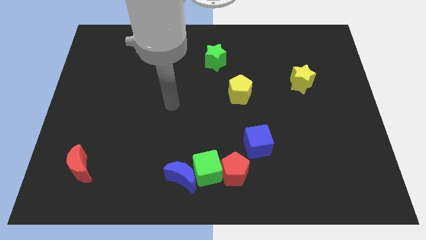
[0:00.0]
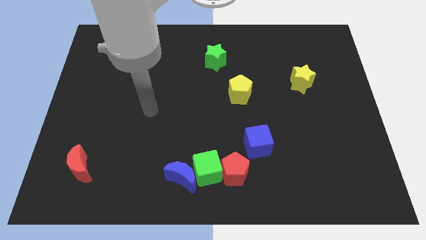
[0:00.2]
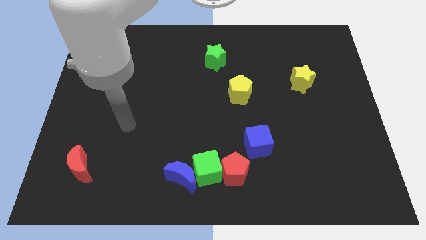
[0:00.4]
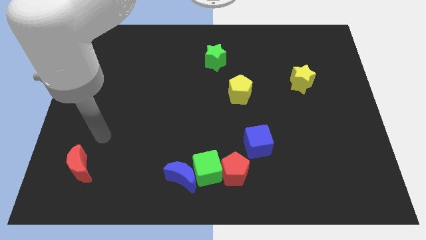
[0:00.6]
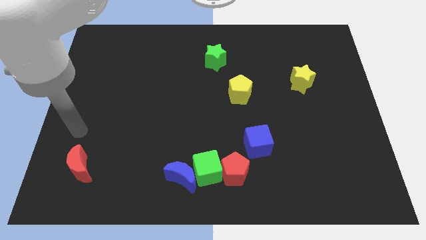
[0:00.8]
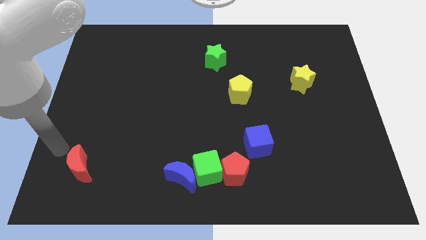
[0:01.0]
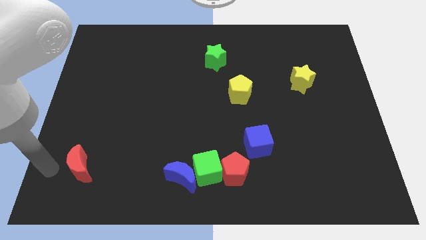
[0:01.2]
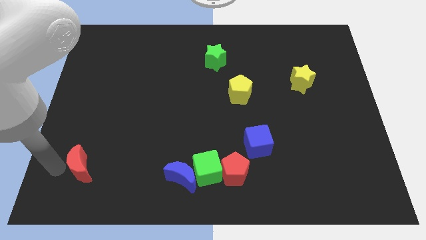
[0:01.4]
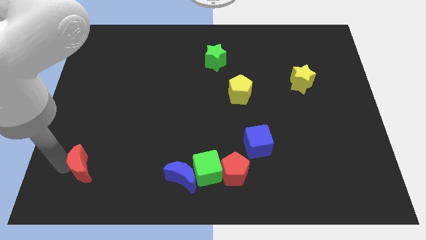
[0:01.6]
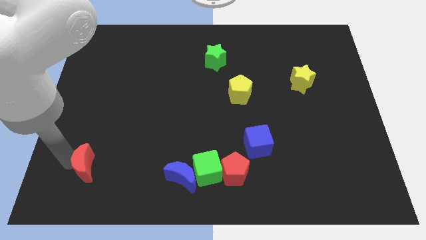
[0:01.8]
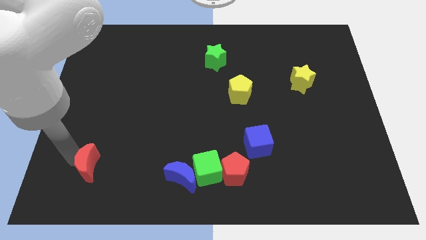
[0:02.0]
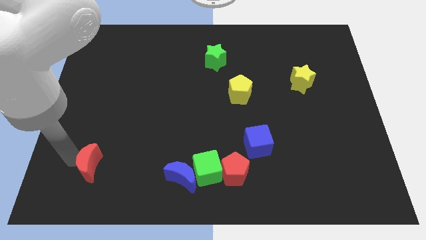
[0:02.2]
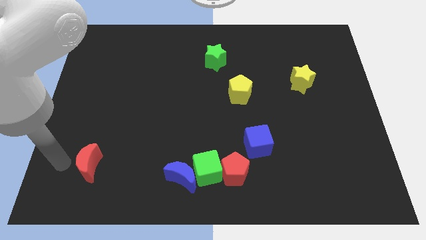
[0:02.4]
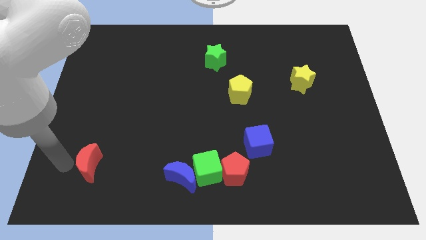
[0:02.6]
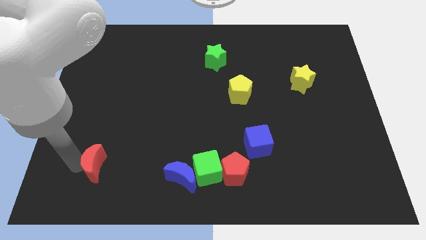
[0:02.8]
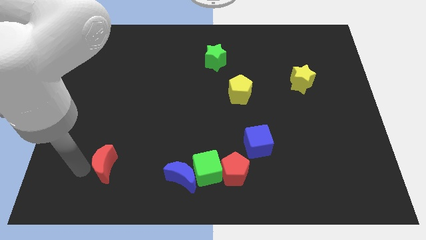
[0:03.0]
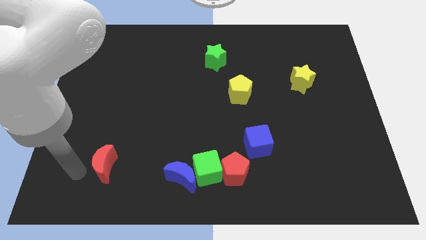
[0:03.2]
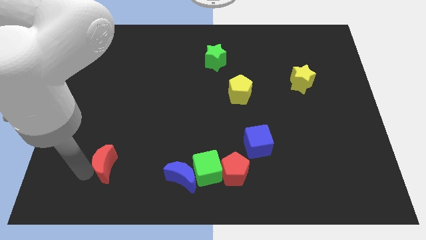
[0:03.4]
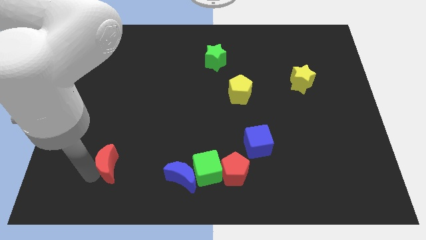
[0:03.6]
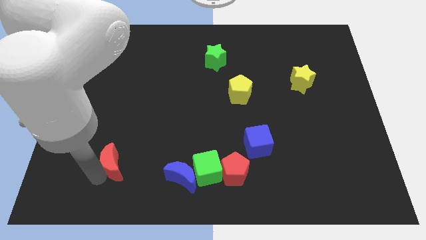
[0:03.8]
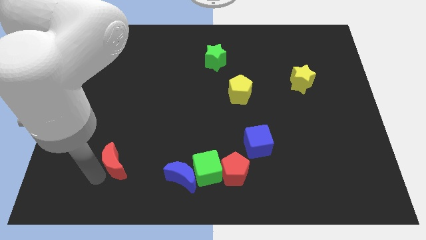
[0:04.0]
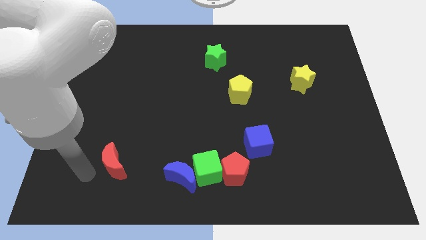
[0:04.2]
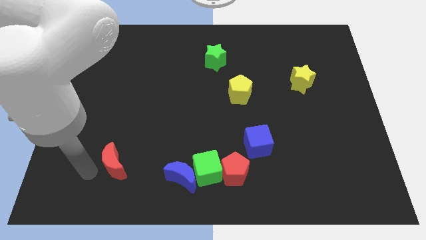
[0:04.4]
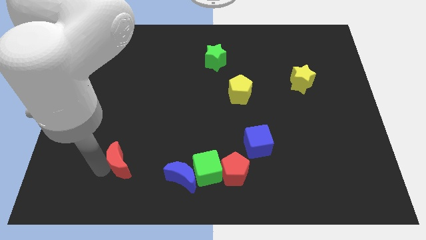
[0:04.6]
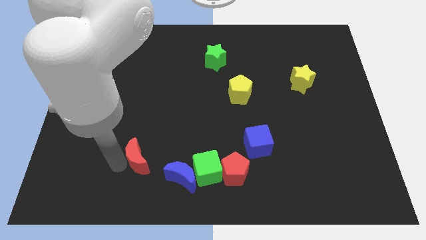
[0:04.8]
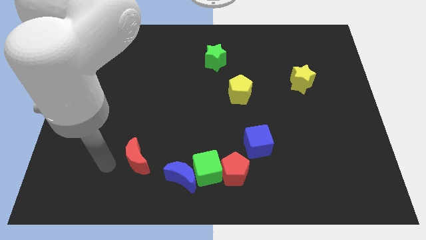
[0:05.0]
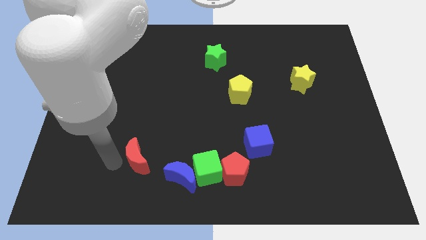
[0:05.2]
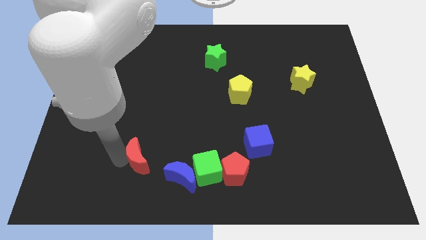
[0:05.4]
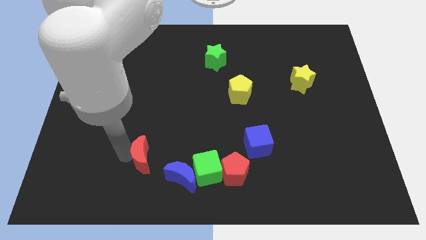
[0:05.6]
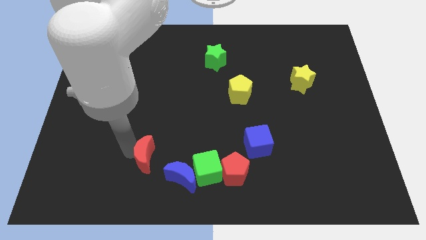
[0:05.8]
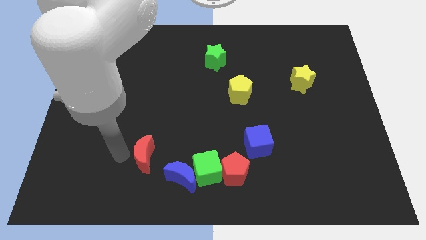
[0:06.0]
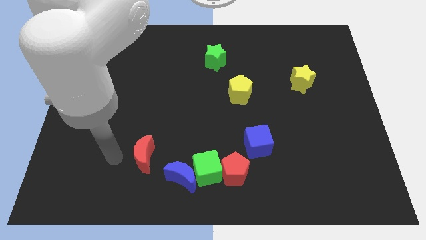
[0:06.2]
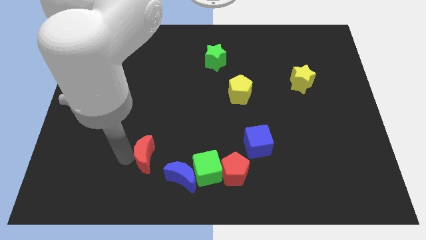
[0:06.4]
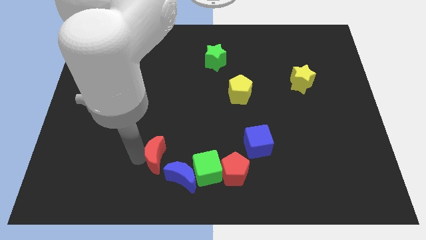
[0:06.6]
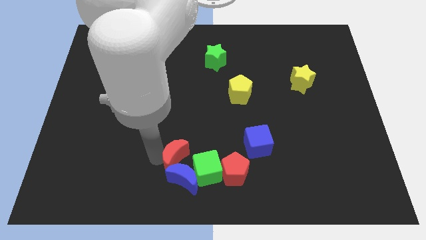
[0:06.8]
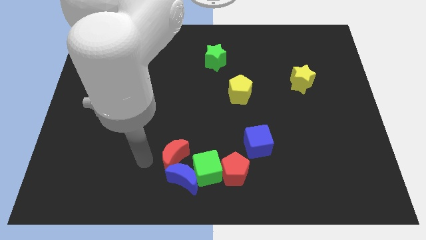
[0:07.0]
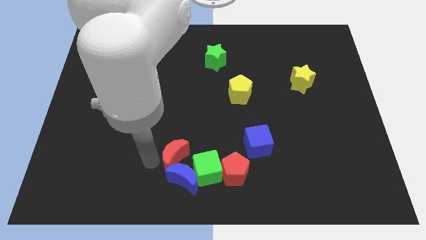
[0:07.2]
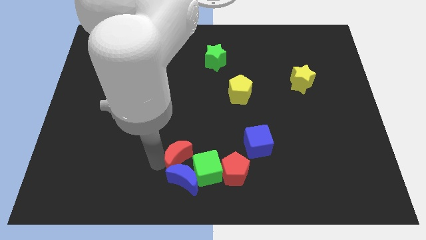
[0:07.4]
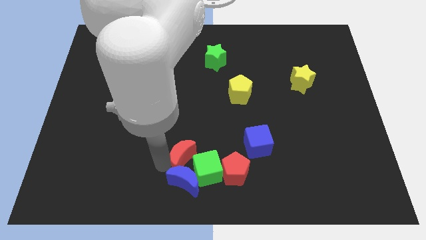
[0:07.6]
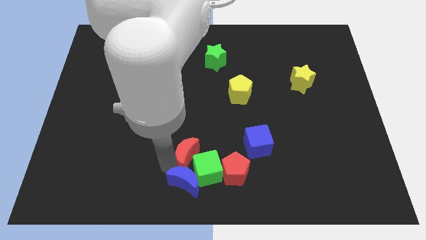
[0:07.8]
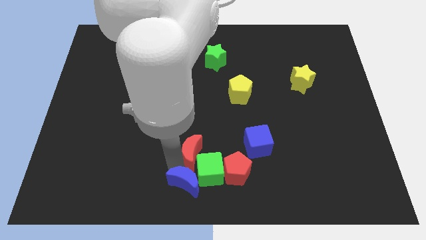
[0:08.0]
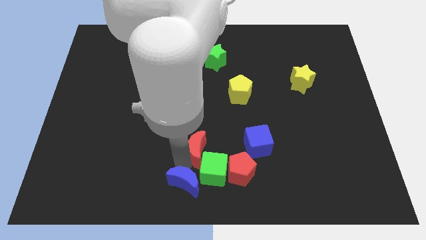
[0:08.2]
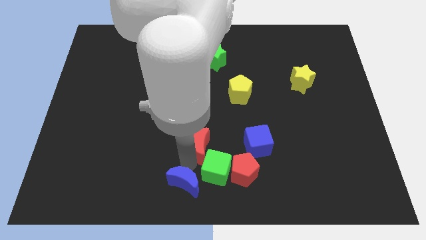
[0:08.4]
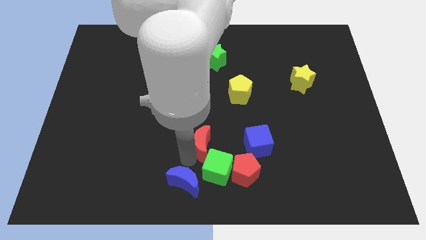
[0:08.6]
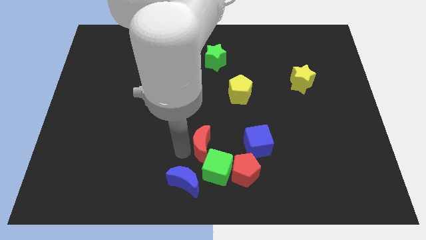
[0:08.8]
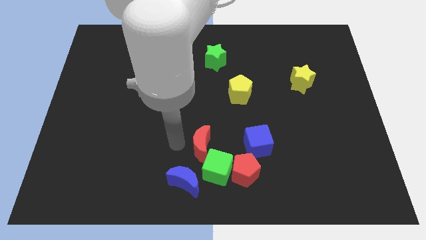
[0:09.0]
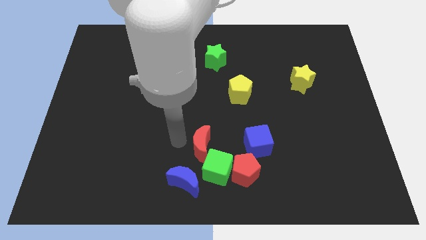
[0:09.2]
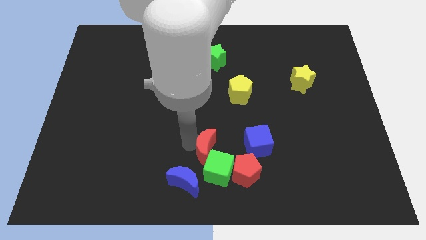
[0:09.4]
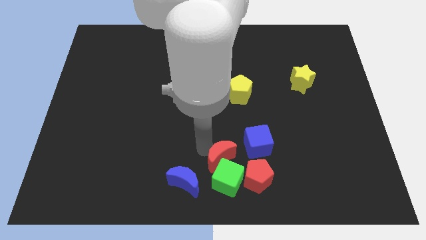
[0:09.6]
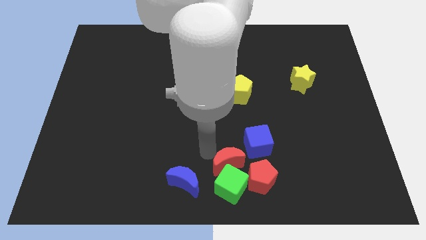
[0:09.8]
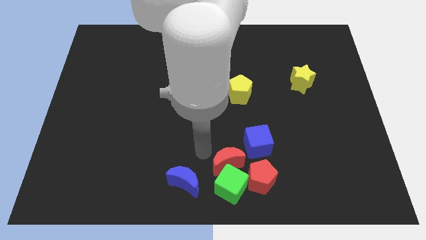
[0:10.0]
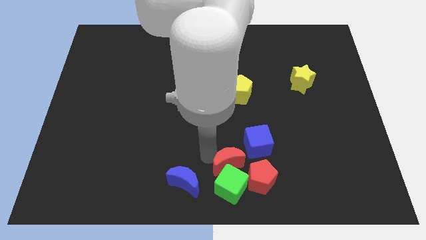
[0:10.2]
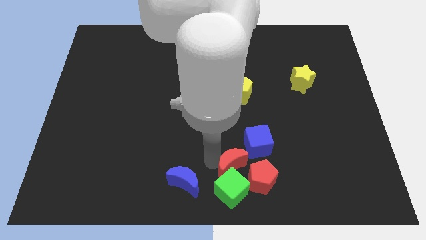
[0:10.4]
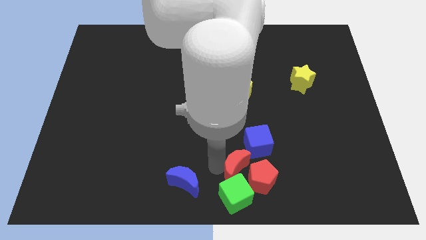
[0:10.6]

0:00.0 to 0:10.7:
move the red moon next to the red pentagon

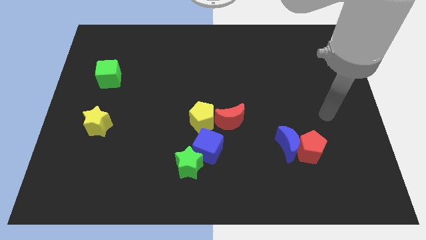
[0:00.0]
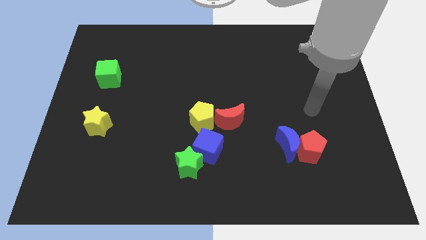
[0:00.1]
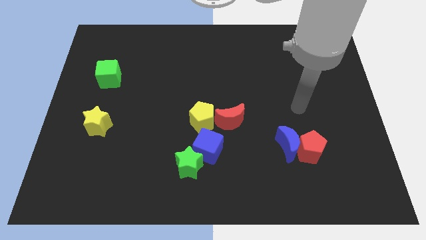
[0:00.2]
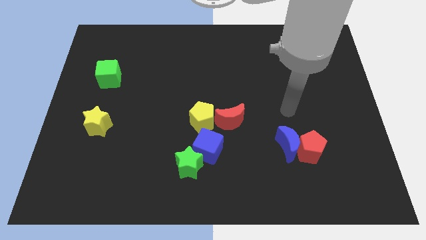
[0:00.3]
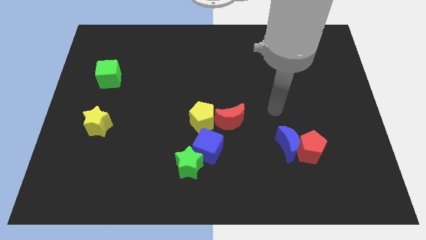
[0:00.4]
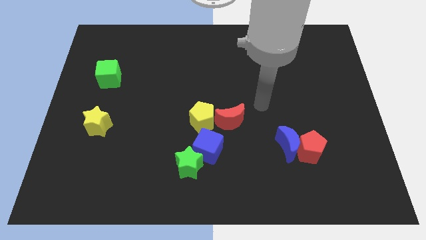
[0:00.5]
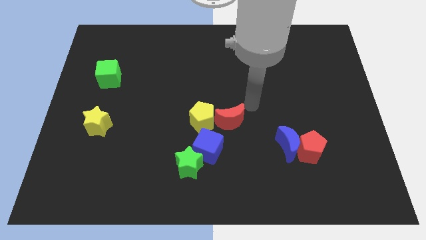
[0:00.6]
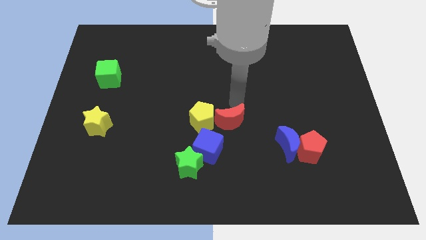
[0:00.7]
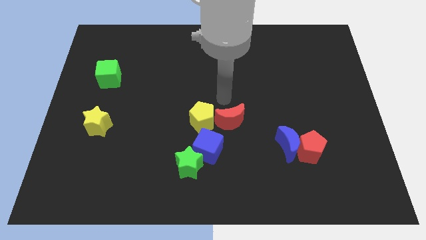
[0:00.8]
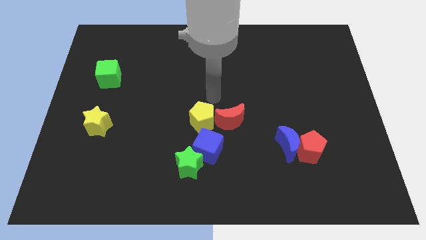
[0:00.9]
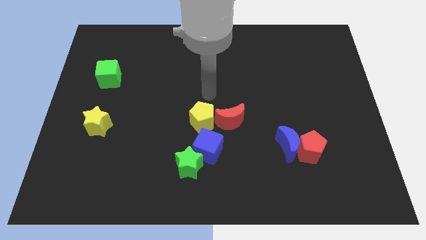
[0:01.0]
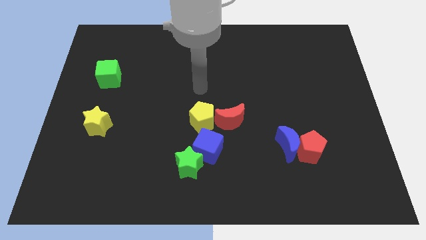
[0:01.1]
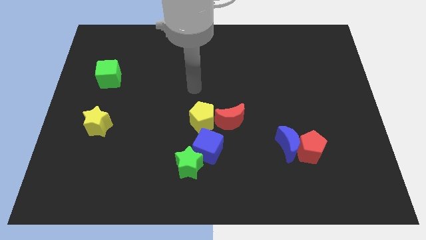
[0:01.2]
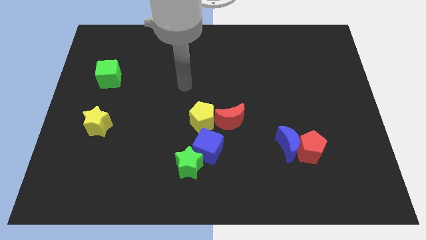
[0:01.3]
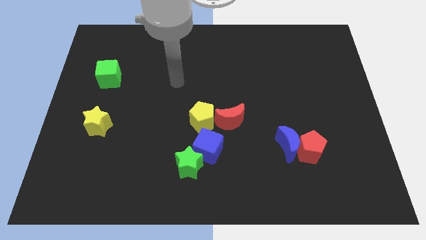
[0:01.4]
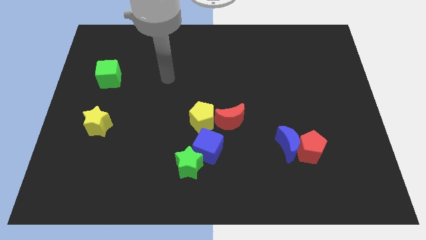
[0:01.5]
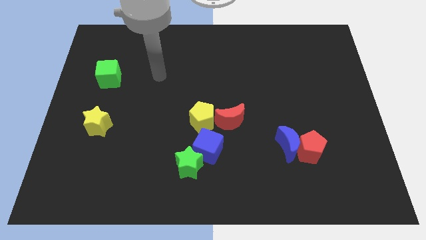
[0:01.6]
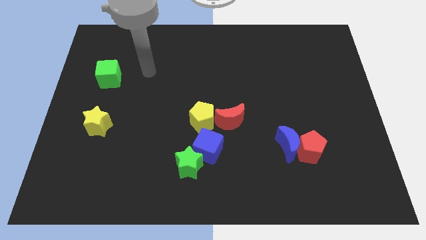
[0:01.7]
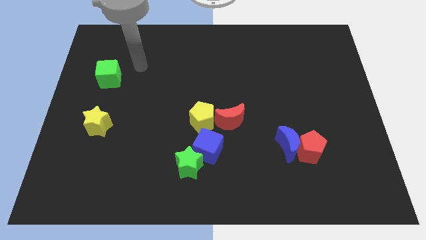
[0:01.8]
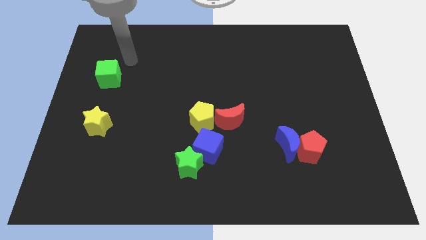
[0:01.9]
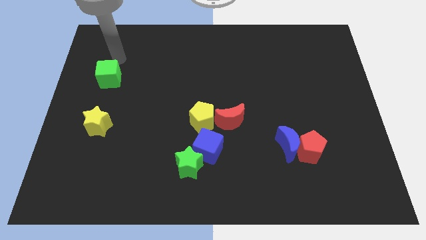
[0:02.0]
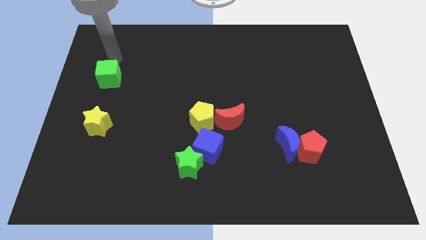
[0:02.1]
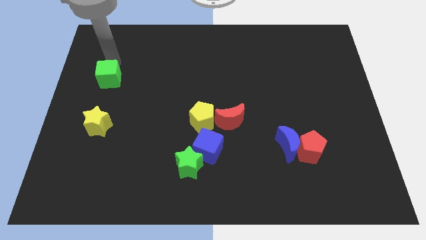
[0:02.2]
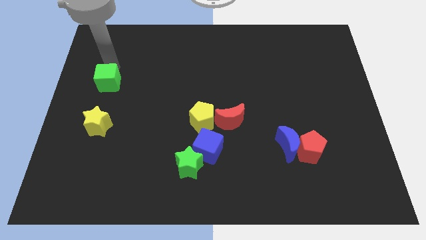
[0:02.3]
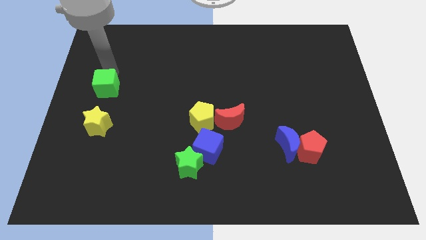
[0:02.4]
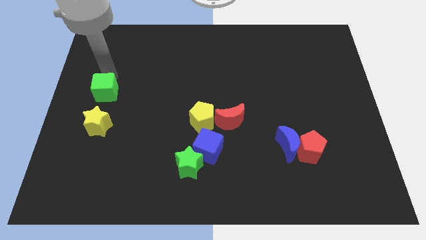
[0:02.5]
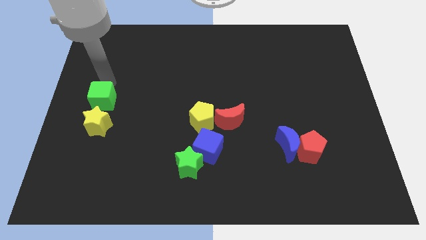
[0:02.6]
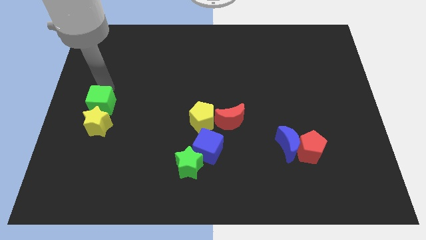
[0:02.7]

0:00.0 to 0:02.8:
move the green cube next to the yellow star
